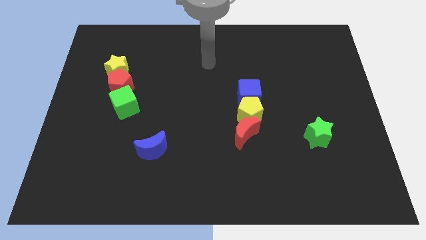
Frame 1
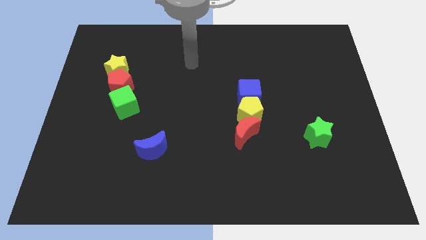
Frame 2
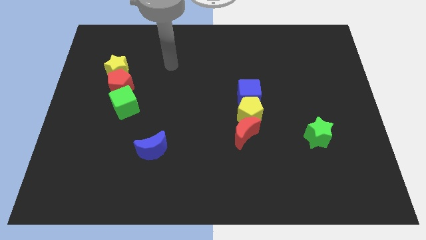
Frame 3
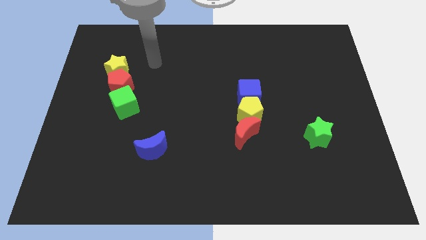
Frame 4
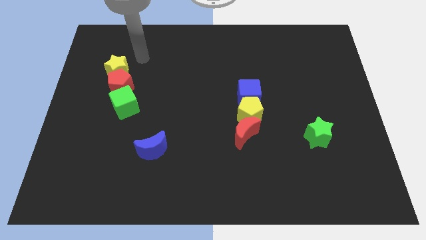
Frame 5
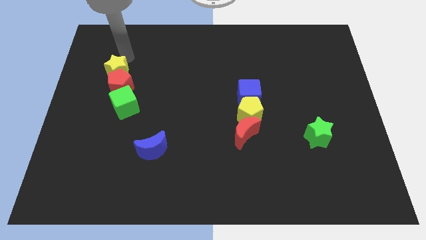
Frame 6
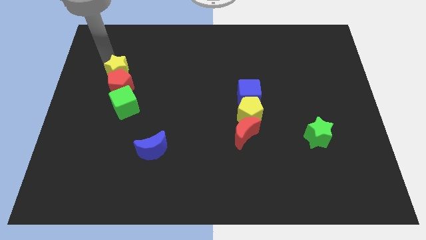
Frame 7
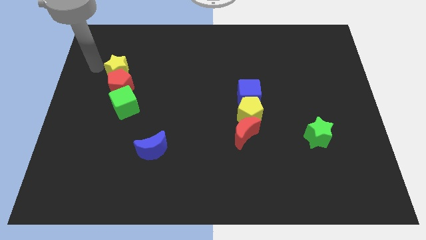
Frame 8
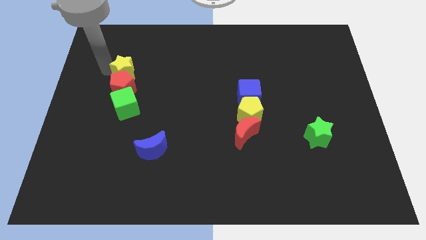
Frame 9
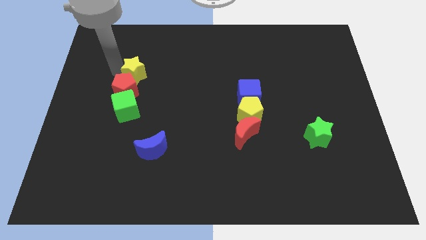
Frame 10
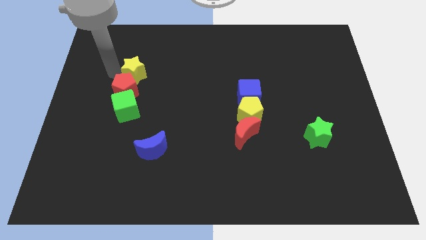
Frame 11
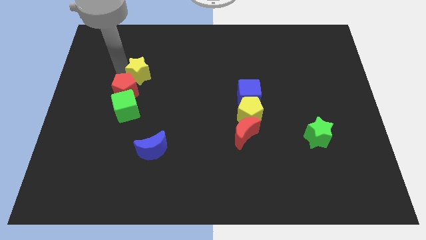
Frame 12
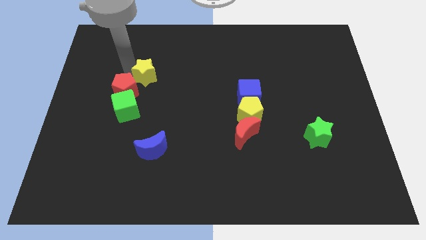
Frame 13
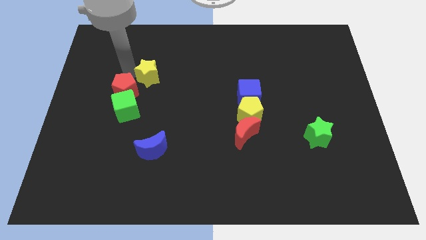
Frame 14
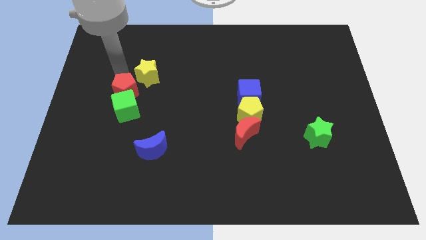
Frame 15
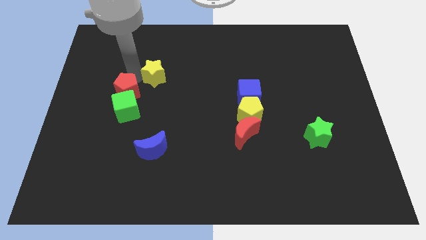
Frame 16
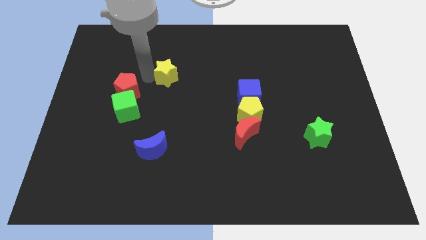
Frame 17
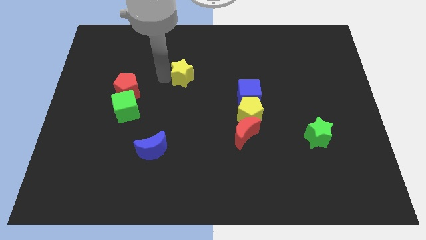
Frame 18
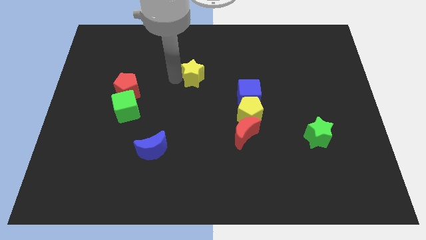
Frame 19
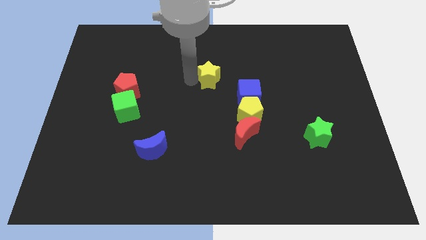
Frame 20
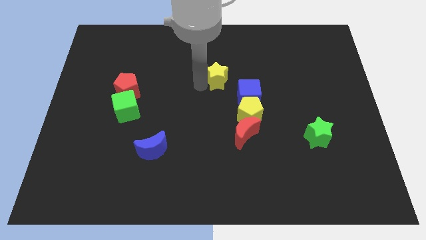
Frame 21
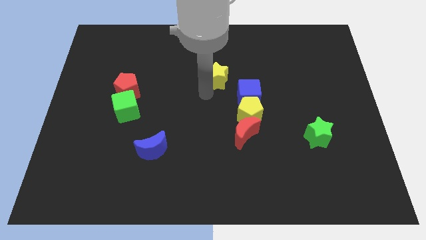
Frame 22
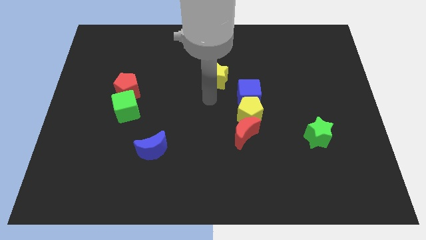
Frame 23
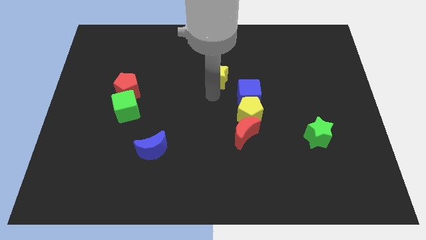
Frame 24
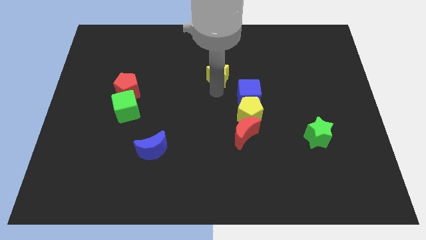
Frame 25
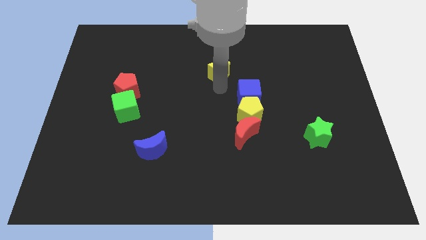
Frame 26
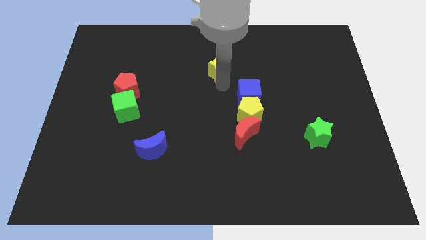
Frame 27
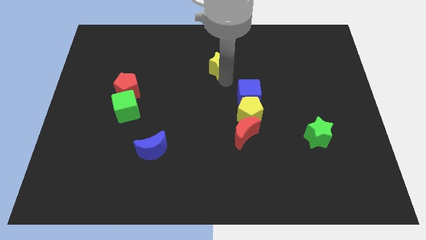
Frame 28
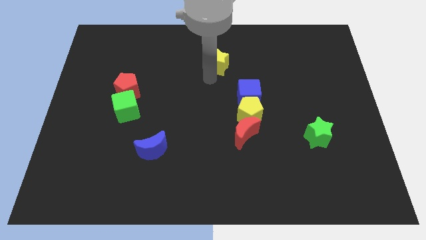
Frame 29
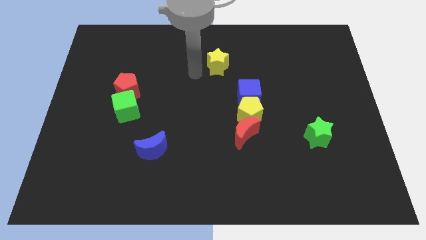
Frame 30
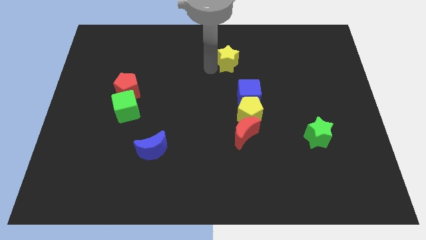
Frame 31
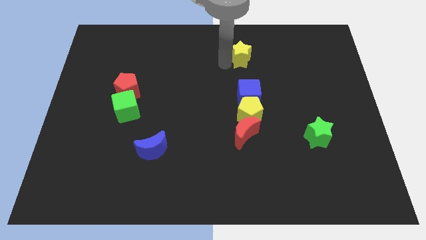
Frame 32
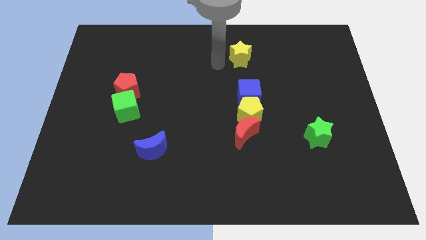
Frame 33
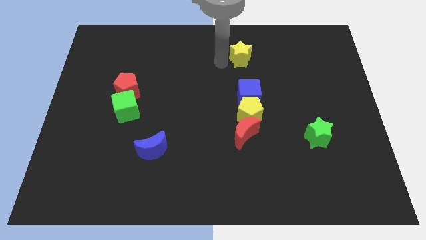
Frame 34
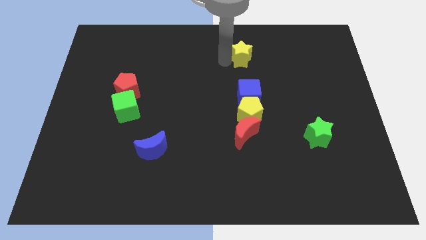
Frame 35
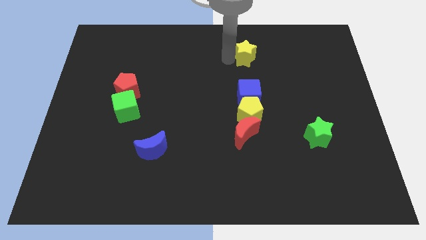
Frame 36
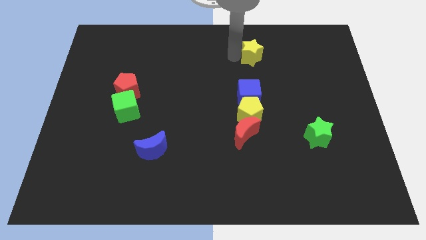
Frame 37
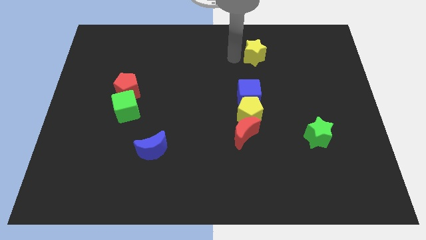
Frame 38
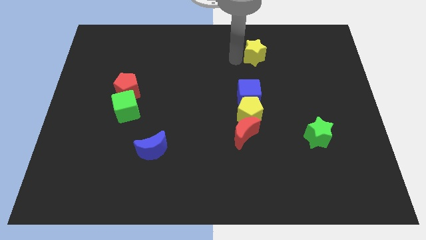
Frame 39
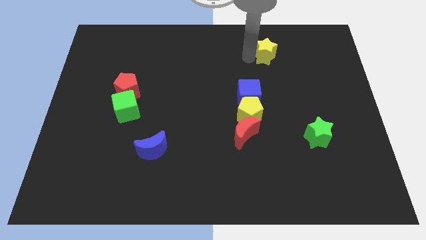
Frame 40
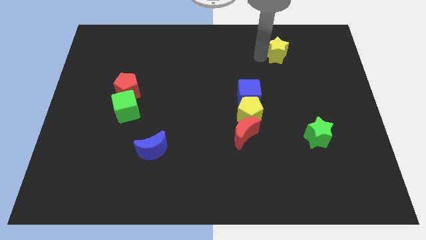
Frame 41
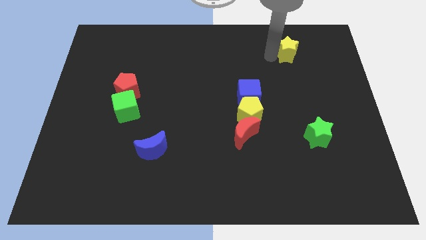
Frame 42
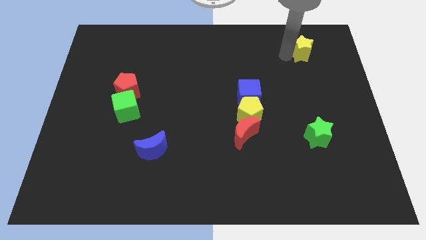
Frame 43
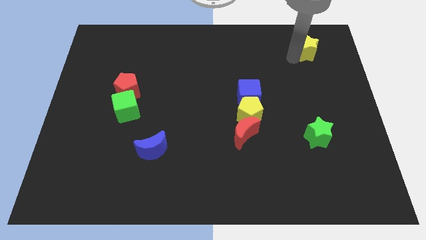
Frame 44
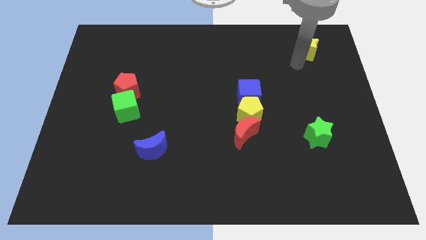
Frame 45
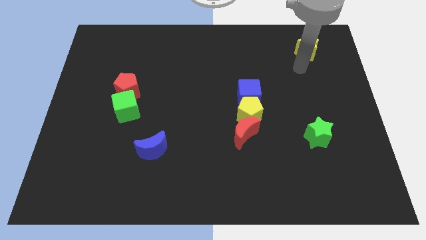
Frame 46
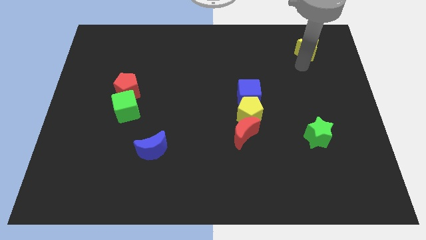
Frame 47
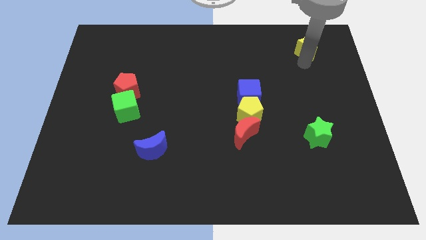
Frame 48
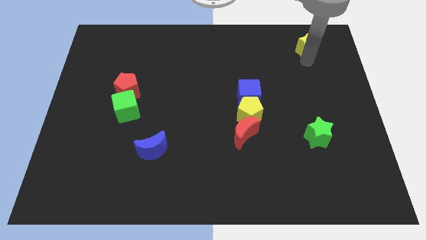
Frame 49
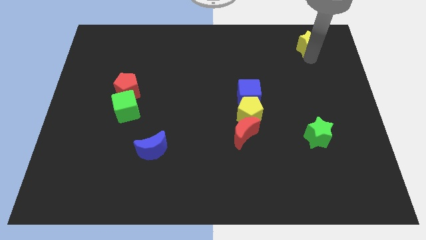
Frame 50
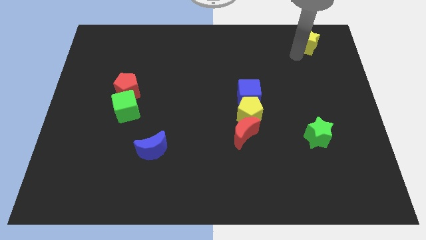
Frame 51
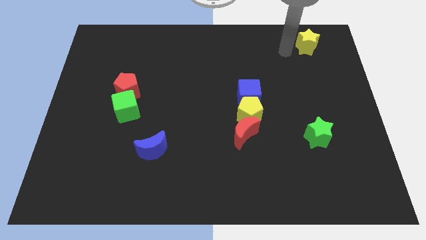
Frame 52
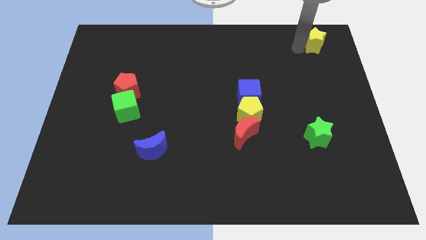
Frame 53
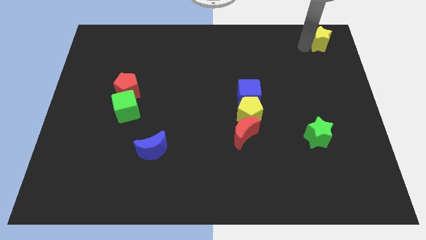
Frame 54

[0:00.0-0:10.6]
push the yellow star to the top right corner

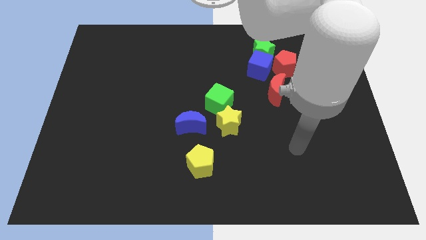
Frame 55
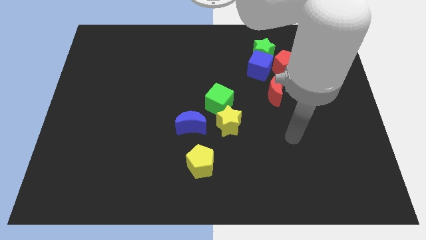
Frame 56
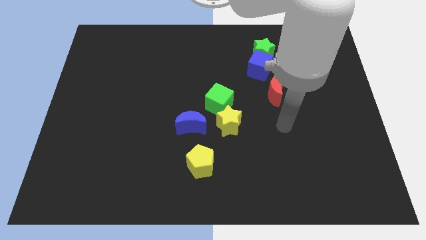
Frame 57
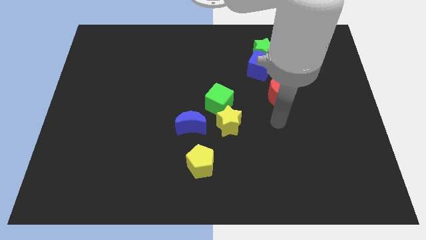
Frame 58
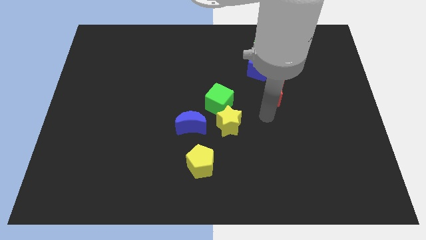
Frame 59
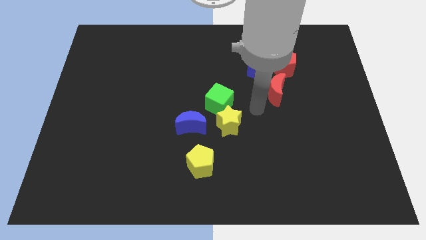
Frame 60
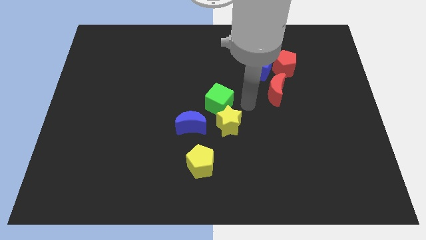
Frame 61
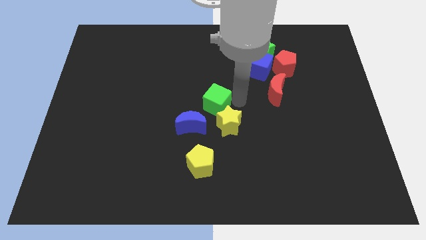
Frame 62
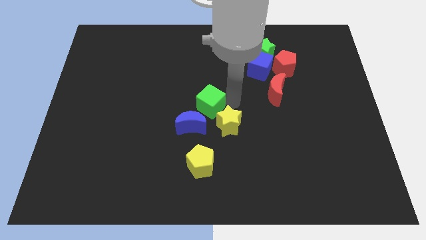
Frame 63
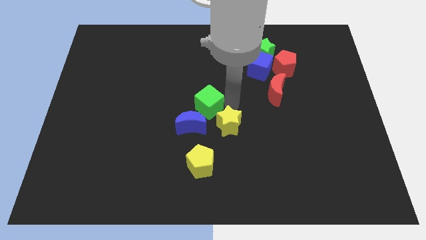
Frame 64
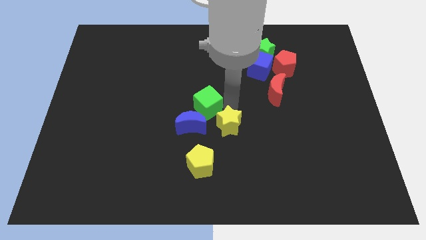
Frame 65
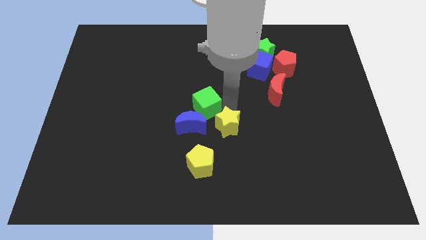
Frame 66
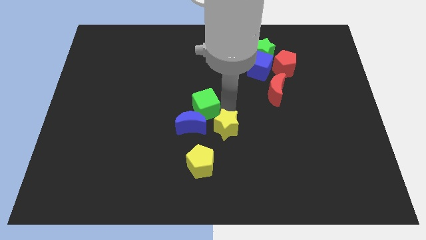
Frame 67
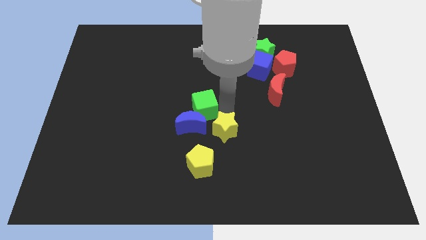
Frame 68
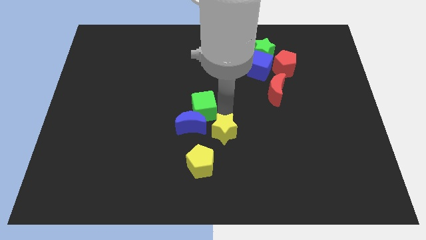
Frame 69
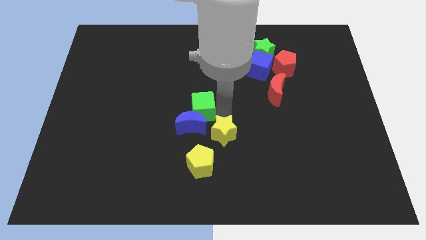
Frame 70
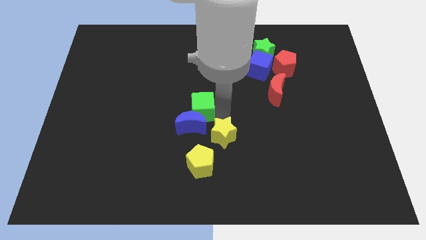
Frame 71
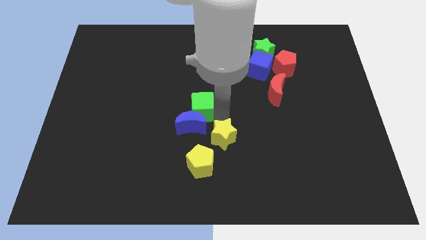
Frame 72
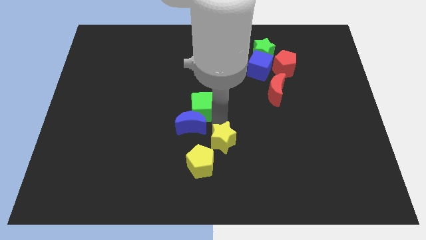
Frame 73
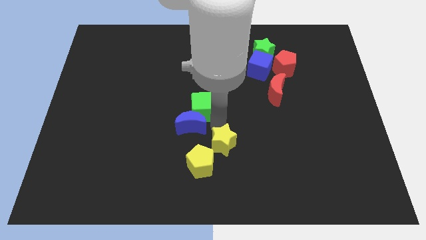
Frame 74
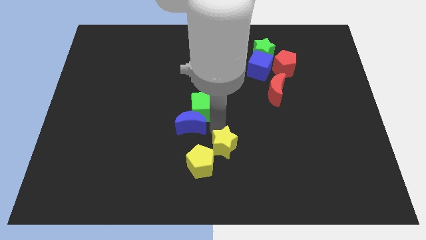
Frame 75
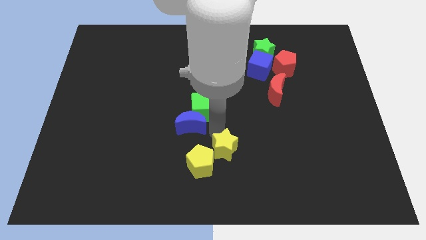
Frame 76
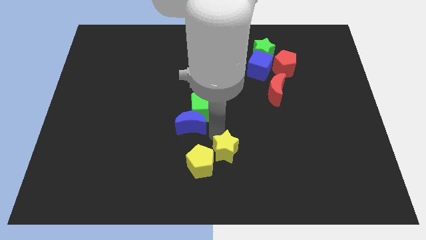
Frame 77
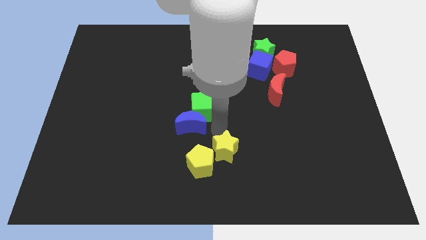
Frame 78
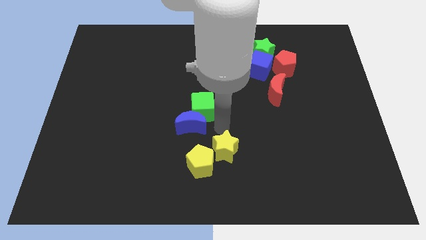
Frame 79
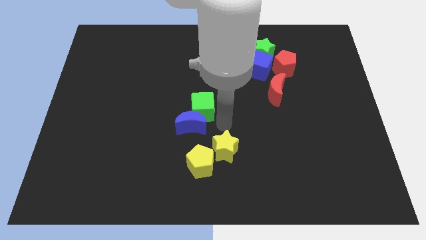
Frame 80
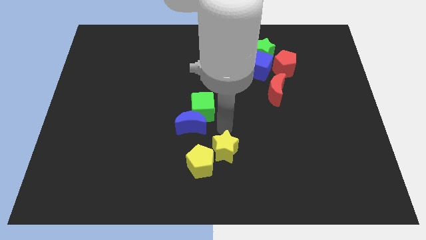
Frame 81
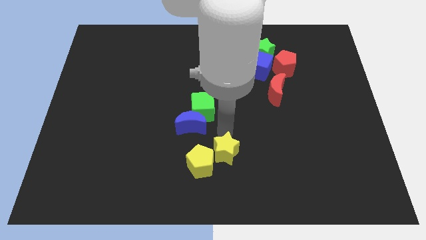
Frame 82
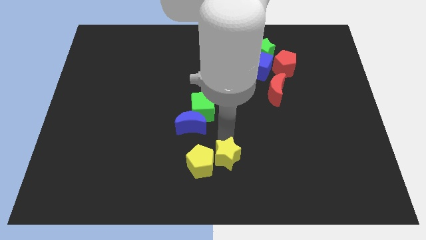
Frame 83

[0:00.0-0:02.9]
put the yellow star to the bottom side
